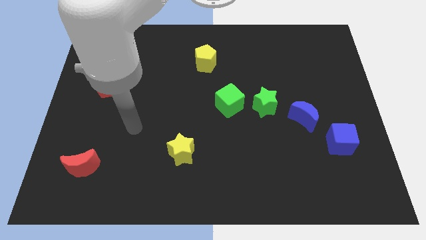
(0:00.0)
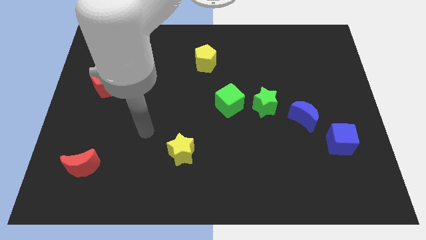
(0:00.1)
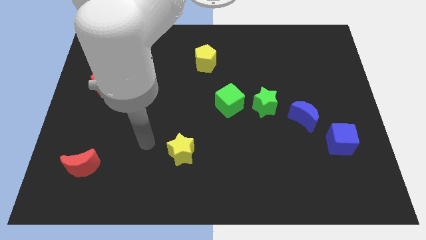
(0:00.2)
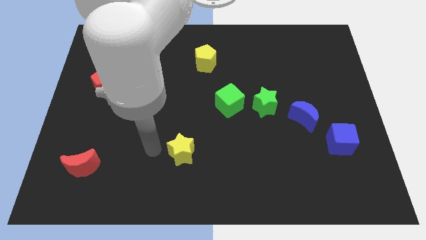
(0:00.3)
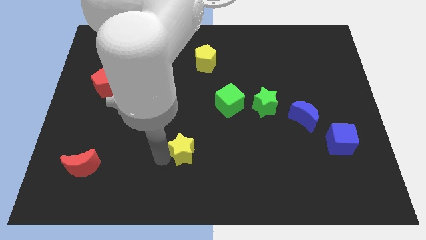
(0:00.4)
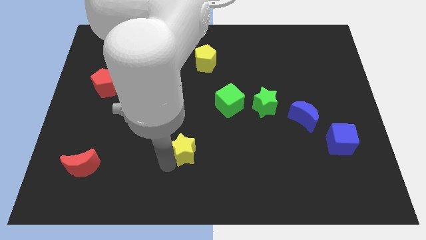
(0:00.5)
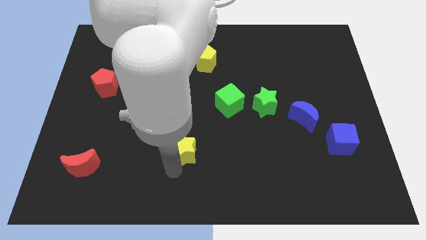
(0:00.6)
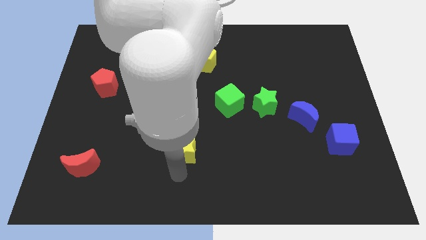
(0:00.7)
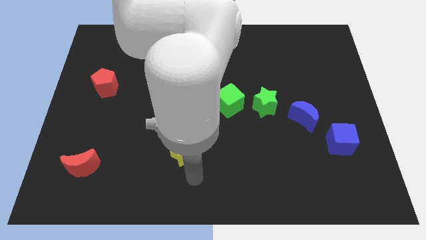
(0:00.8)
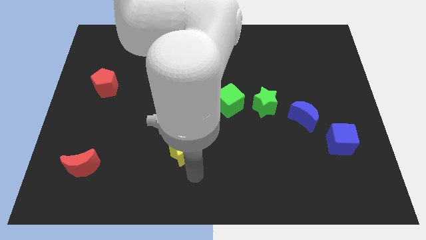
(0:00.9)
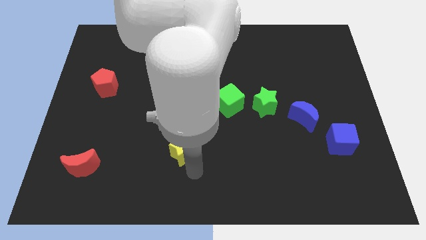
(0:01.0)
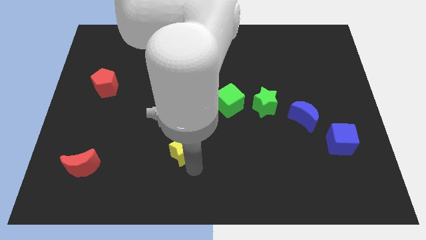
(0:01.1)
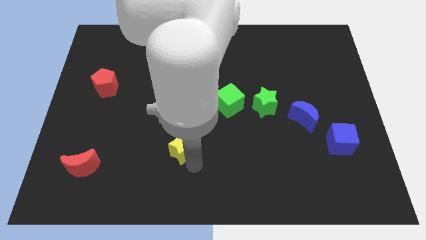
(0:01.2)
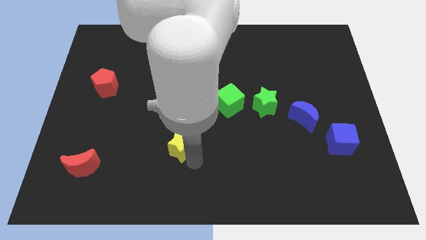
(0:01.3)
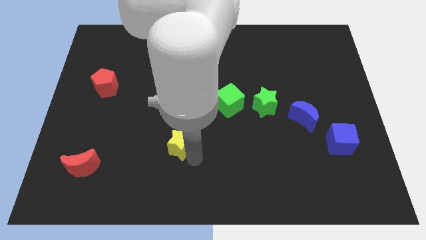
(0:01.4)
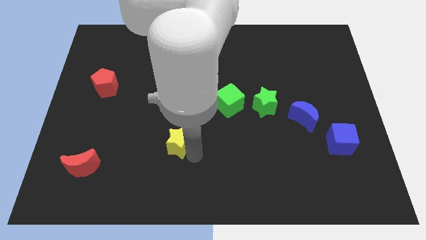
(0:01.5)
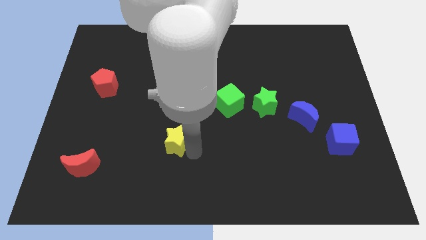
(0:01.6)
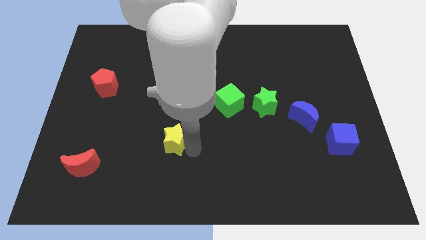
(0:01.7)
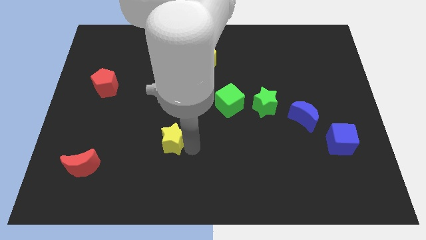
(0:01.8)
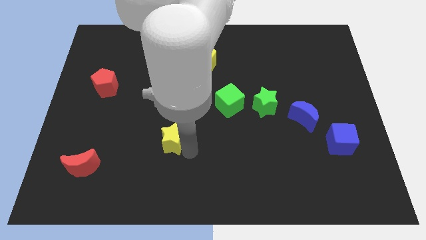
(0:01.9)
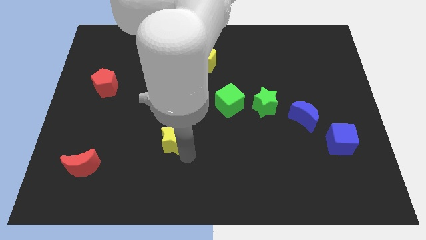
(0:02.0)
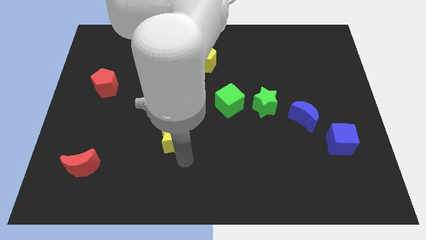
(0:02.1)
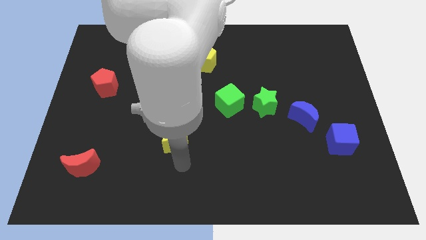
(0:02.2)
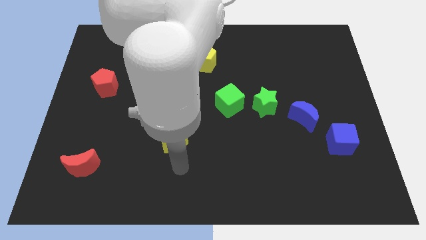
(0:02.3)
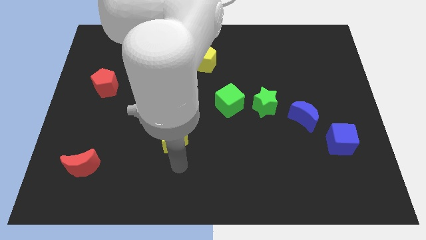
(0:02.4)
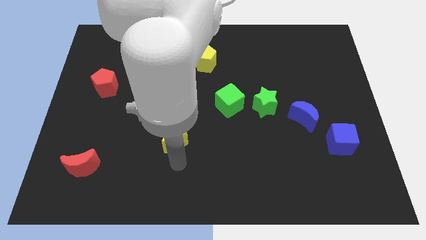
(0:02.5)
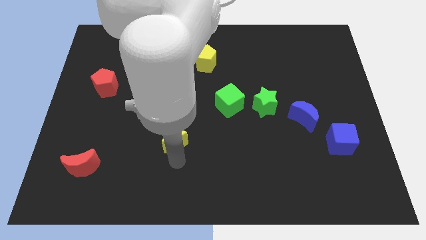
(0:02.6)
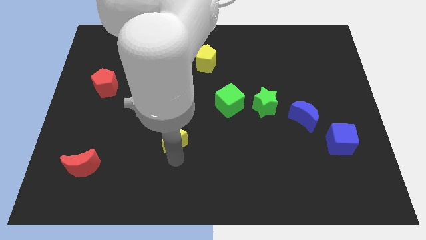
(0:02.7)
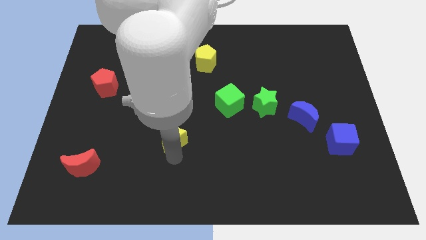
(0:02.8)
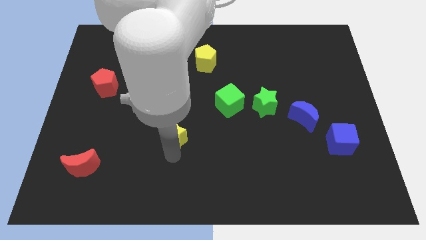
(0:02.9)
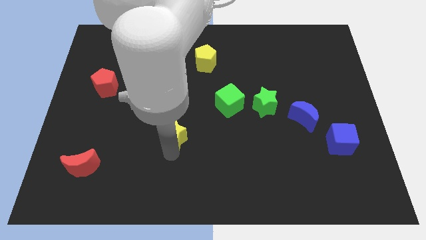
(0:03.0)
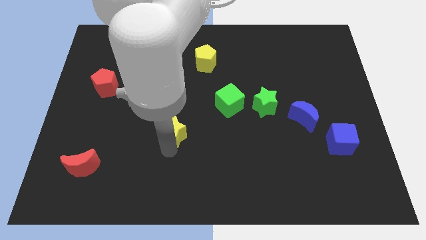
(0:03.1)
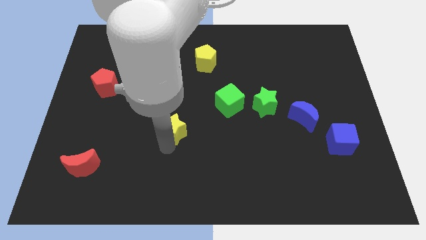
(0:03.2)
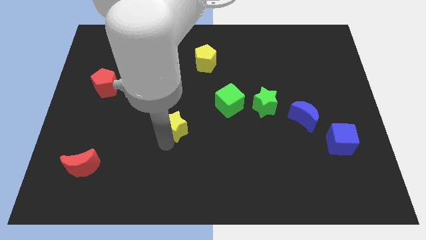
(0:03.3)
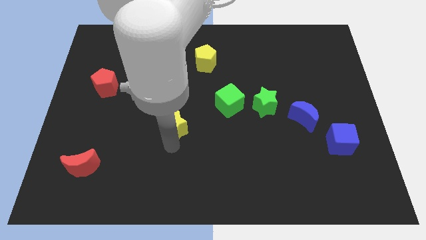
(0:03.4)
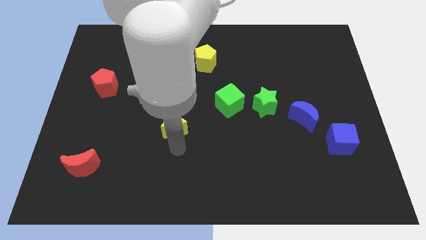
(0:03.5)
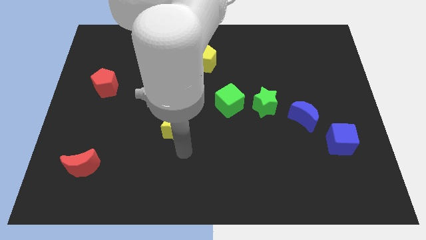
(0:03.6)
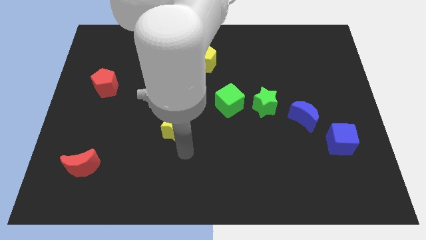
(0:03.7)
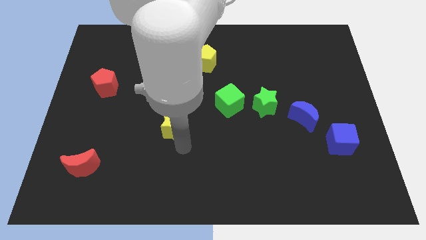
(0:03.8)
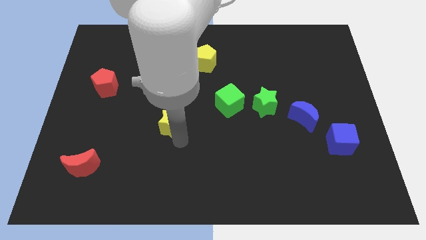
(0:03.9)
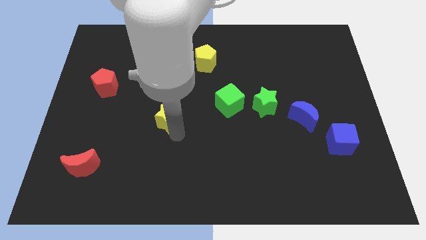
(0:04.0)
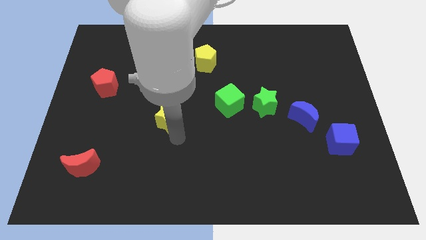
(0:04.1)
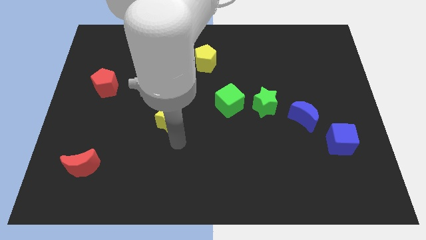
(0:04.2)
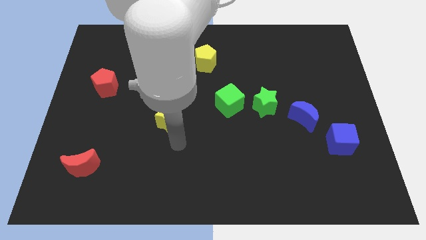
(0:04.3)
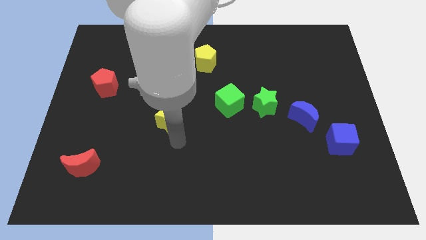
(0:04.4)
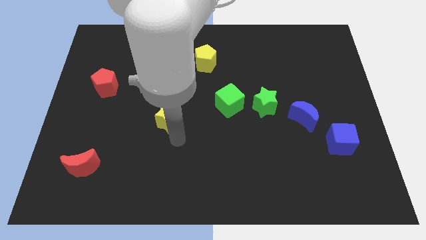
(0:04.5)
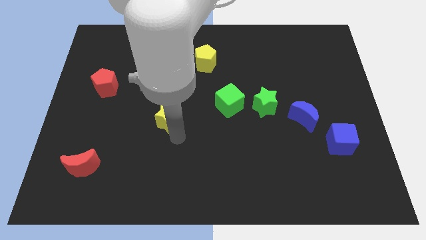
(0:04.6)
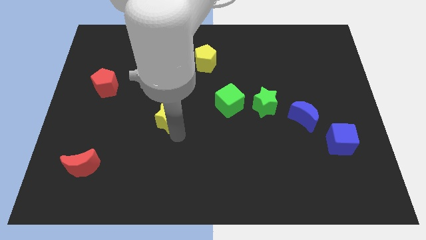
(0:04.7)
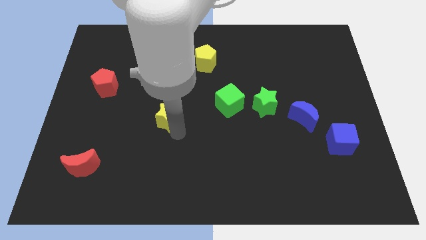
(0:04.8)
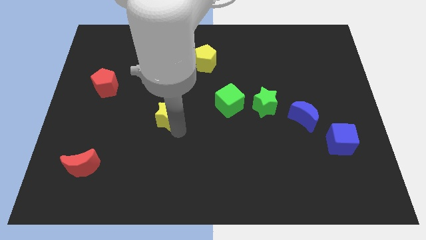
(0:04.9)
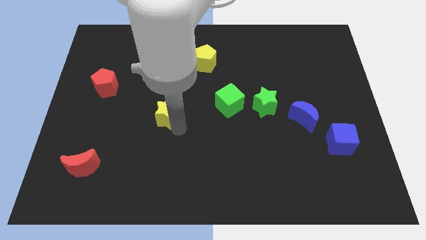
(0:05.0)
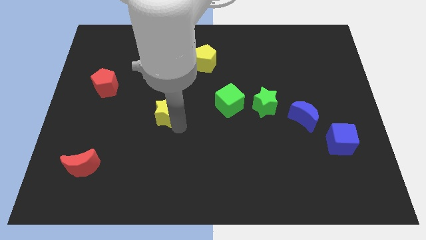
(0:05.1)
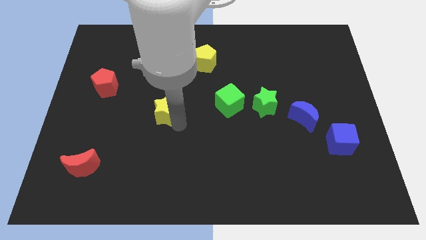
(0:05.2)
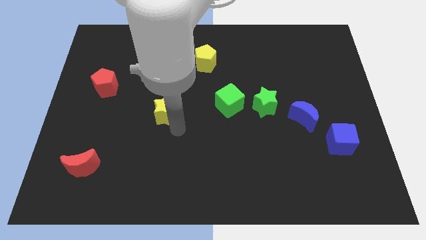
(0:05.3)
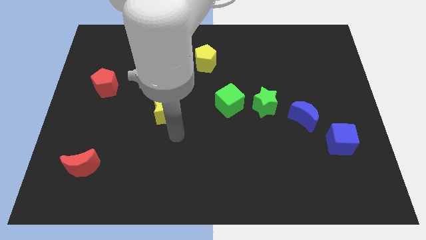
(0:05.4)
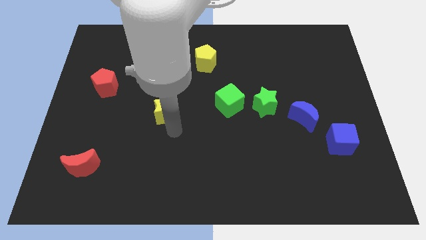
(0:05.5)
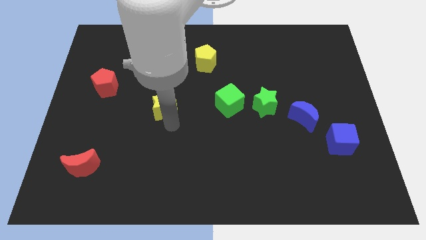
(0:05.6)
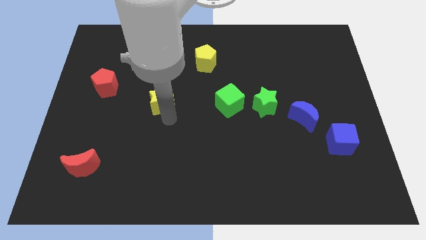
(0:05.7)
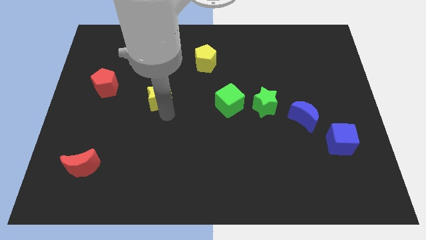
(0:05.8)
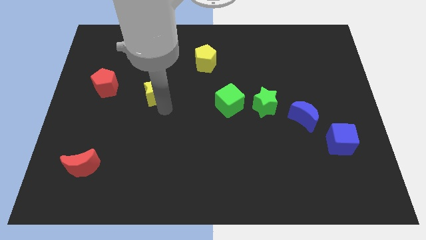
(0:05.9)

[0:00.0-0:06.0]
put the yellow star right of the red pentagon

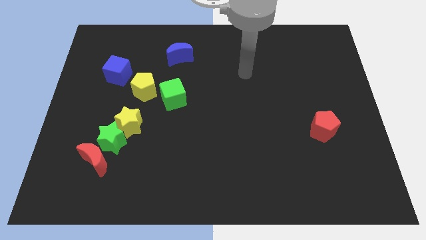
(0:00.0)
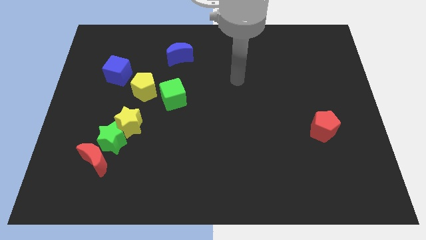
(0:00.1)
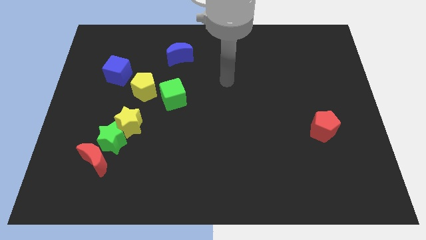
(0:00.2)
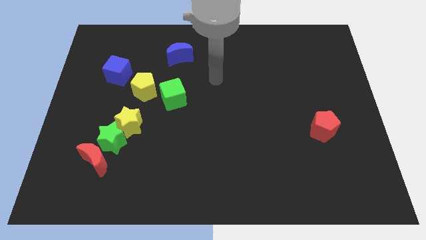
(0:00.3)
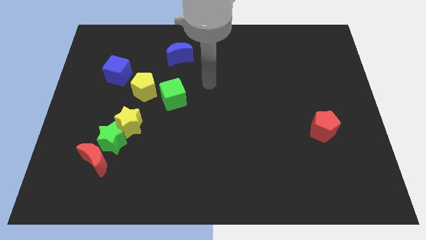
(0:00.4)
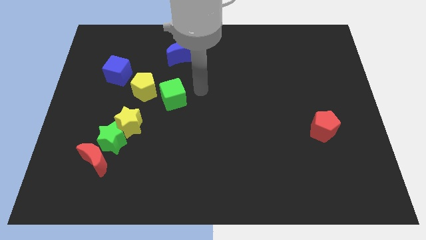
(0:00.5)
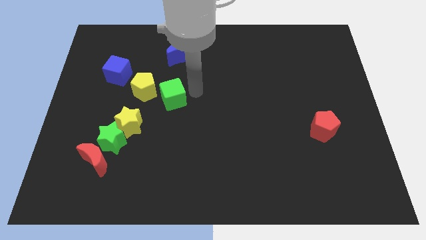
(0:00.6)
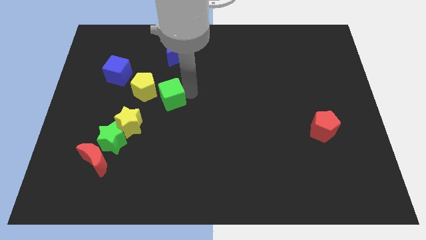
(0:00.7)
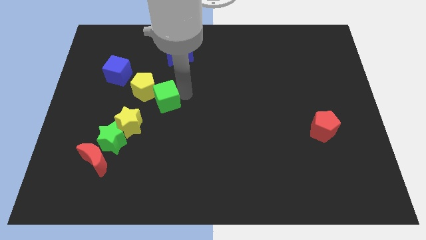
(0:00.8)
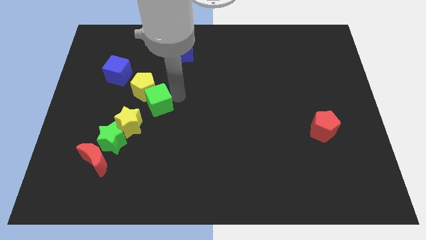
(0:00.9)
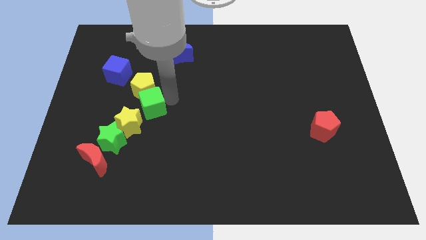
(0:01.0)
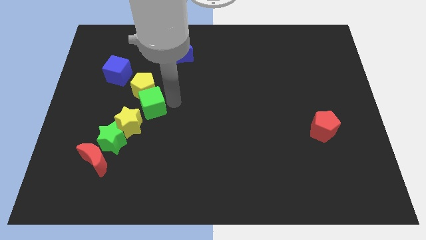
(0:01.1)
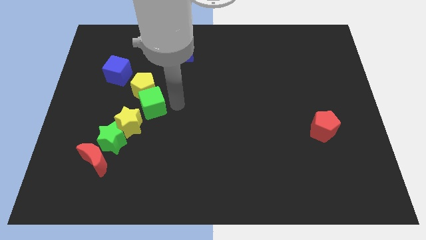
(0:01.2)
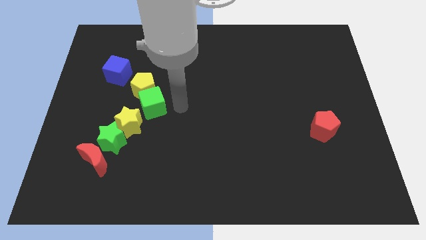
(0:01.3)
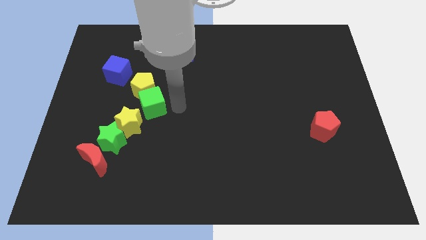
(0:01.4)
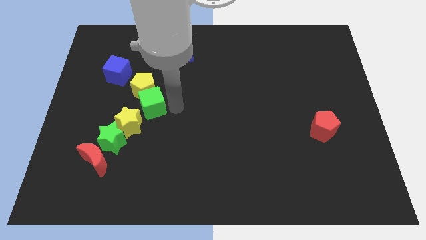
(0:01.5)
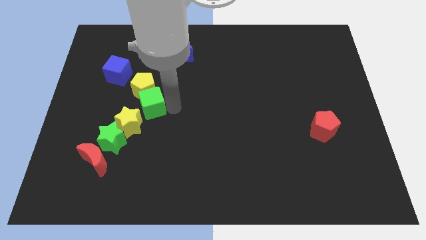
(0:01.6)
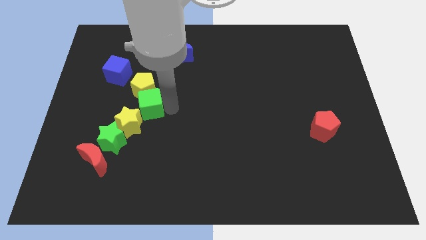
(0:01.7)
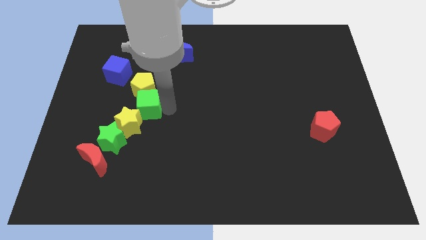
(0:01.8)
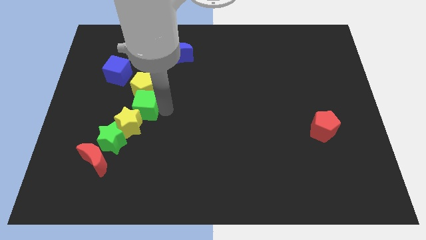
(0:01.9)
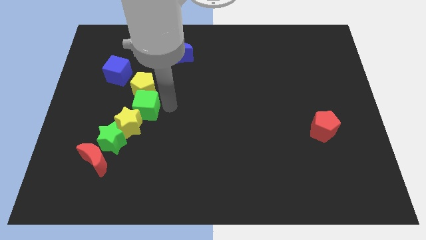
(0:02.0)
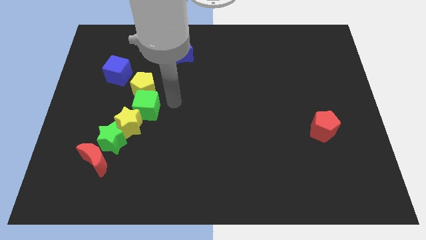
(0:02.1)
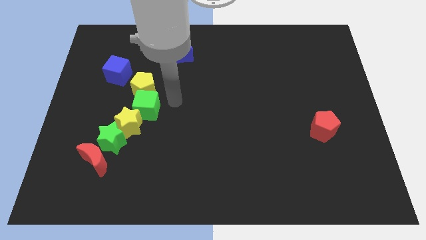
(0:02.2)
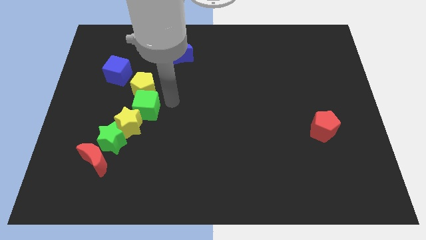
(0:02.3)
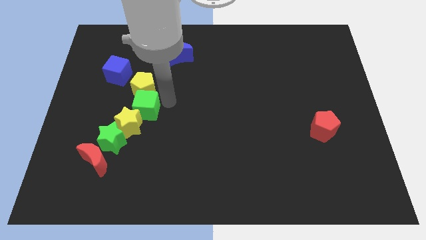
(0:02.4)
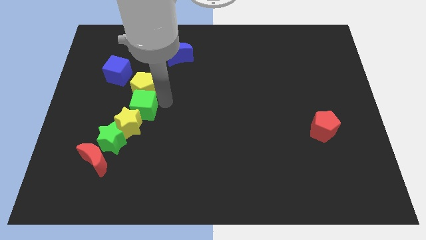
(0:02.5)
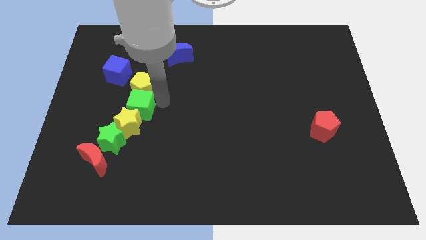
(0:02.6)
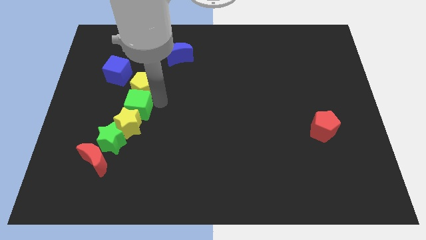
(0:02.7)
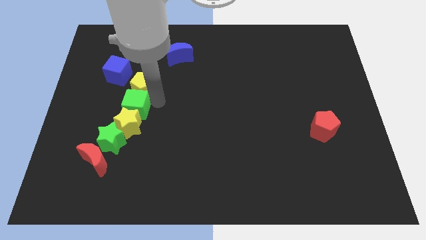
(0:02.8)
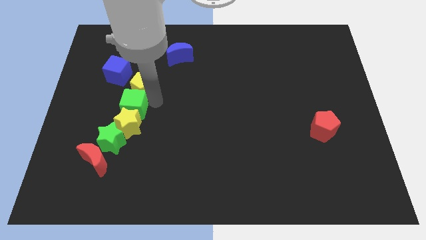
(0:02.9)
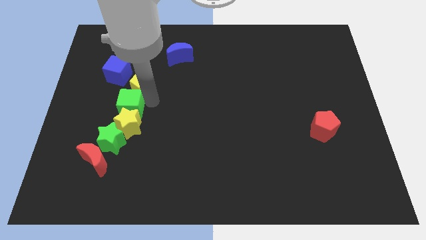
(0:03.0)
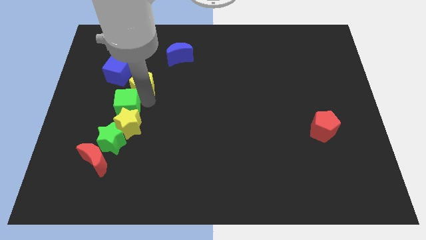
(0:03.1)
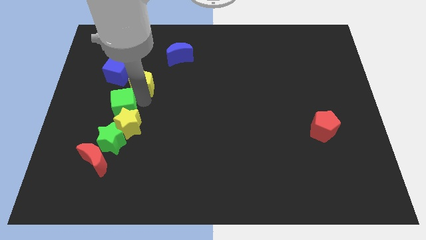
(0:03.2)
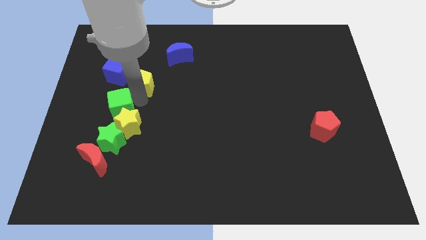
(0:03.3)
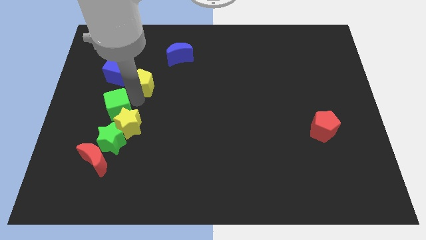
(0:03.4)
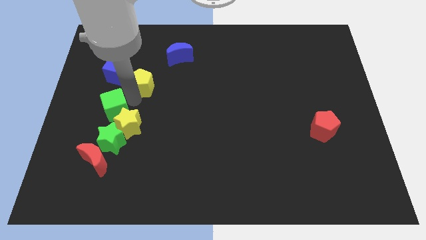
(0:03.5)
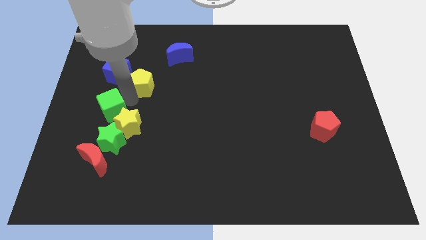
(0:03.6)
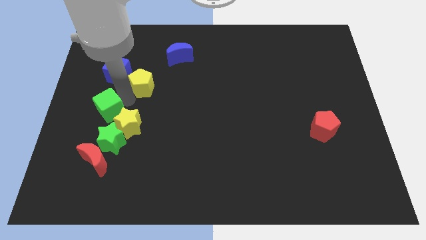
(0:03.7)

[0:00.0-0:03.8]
put the green cube to the top left side of the green star
